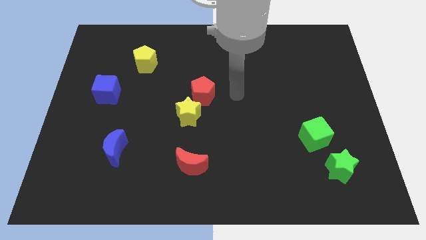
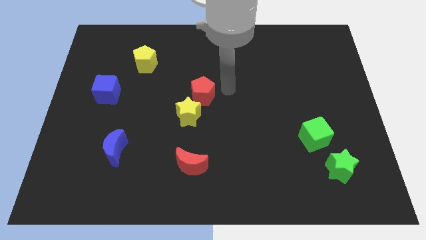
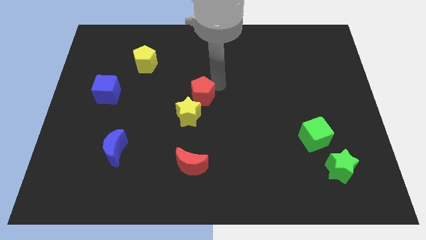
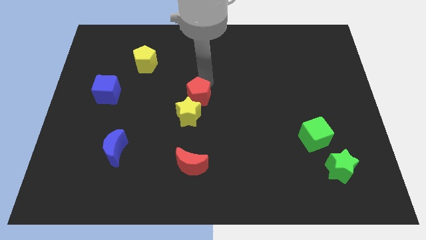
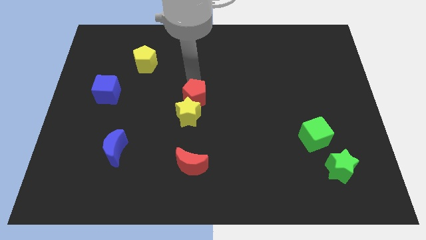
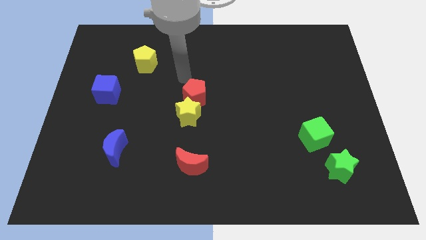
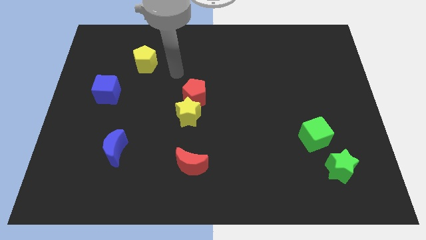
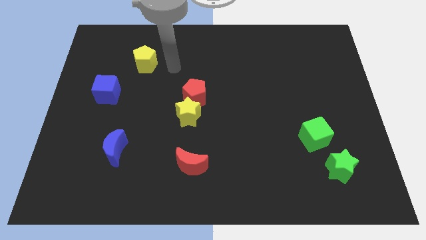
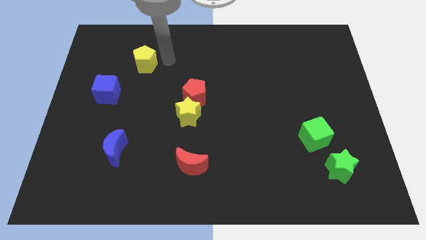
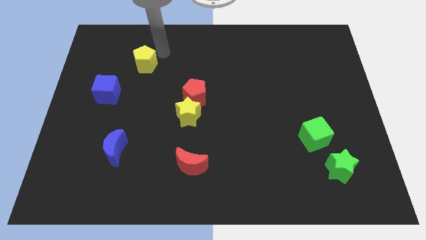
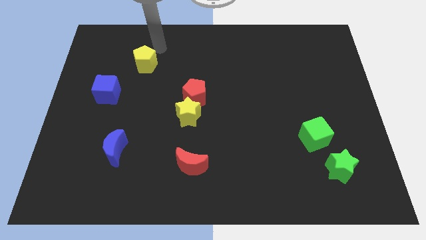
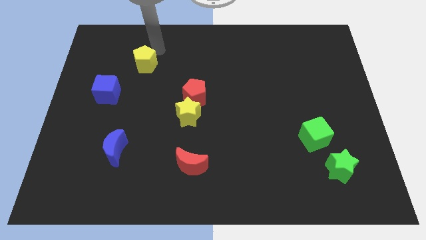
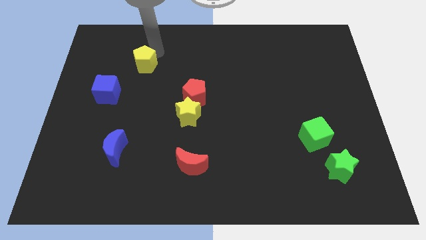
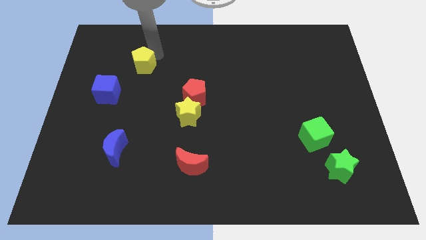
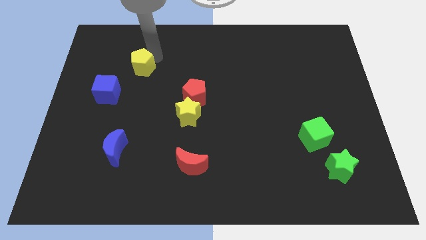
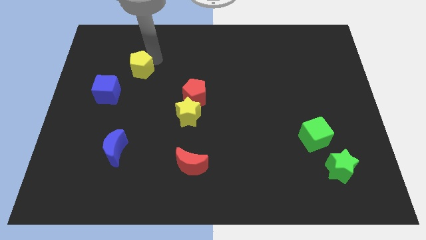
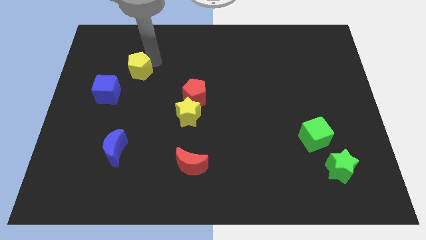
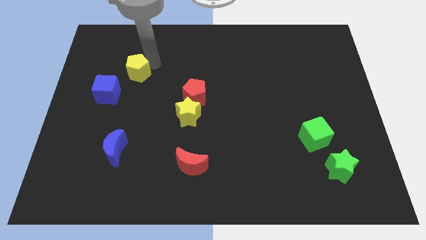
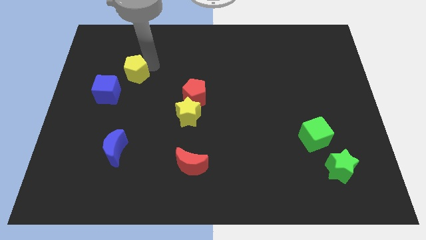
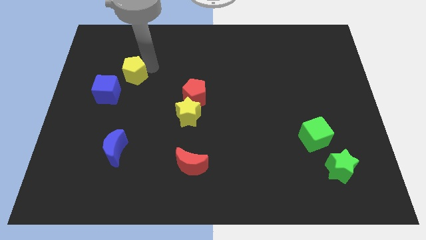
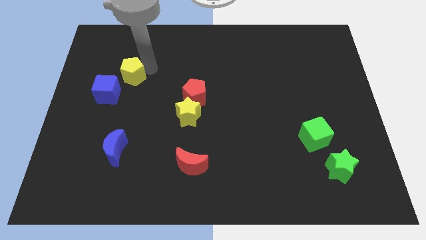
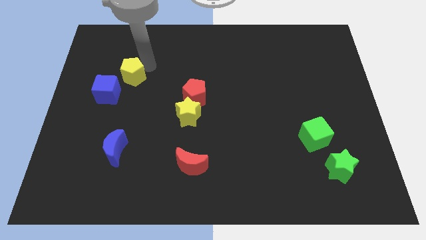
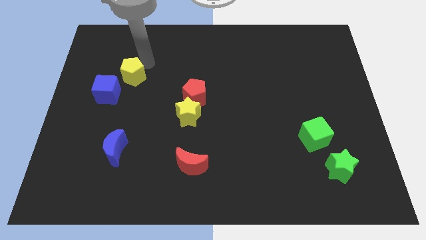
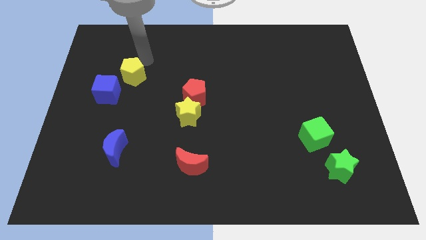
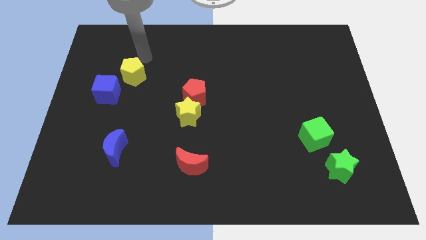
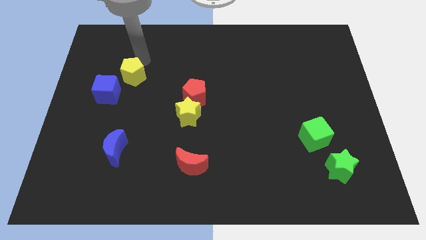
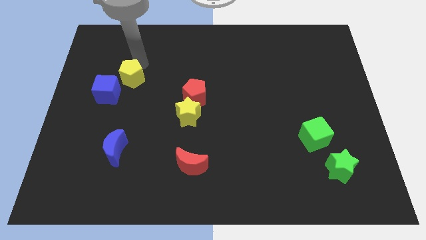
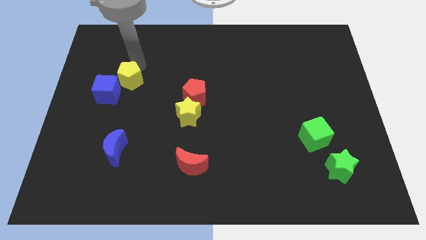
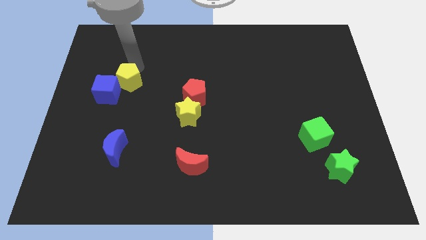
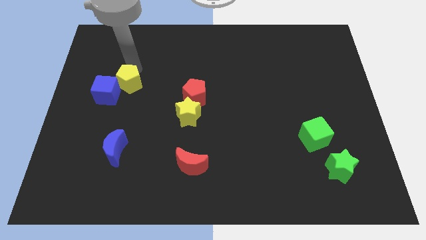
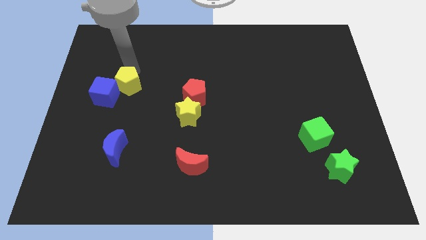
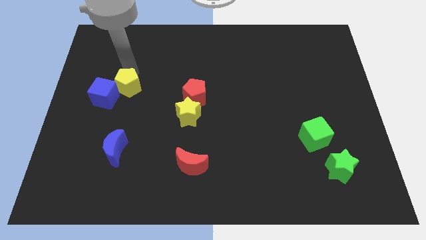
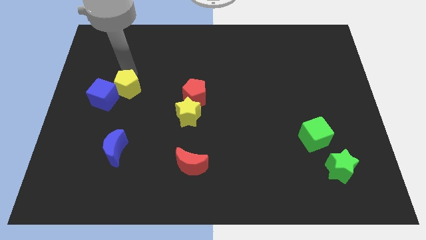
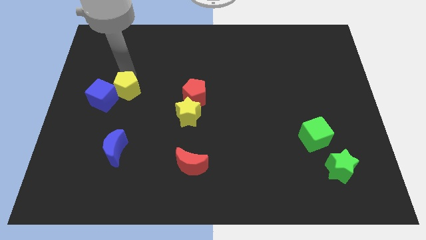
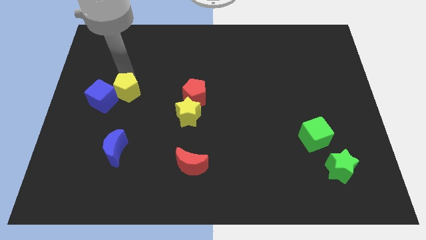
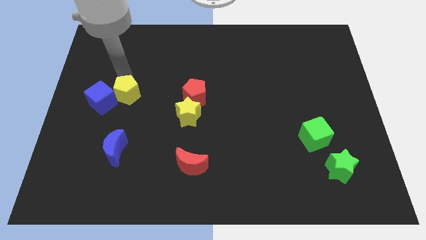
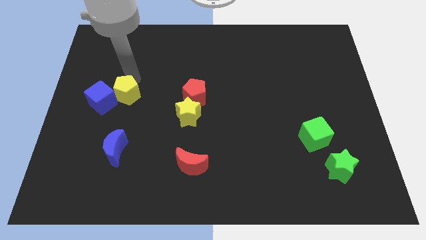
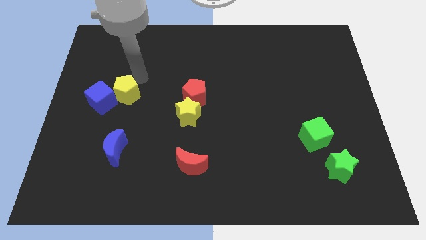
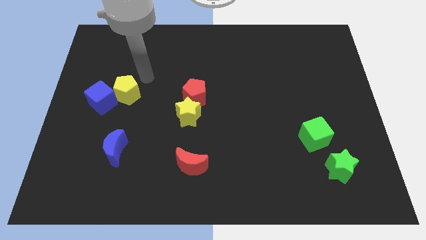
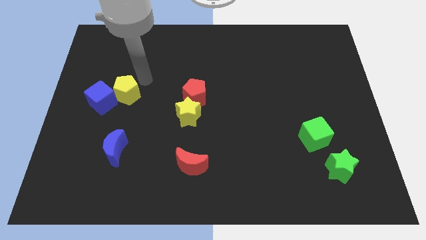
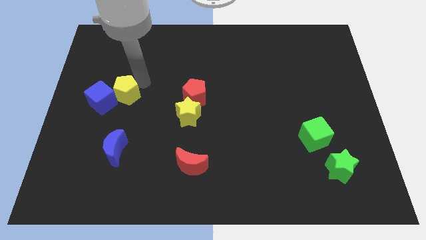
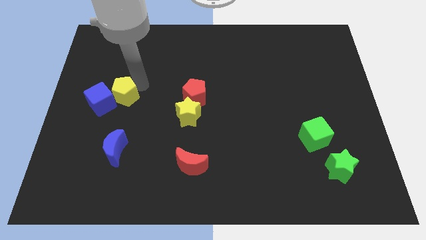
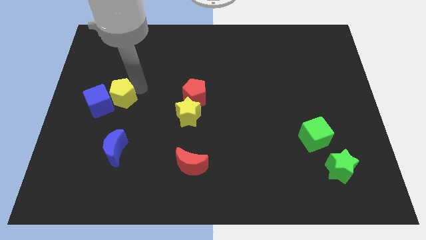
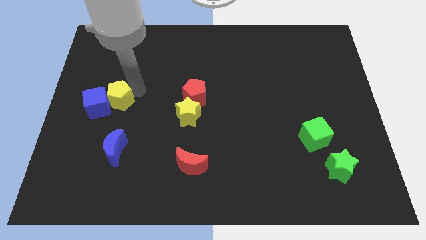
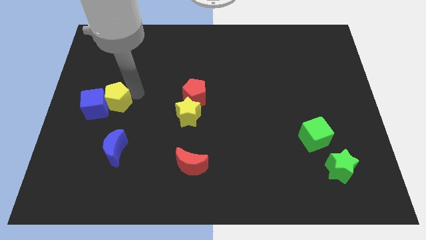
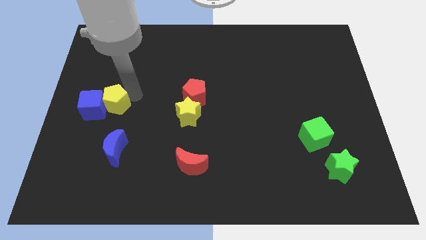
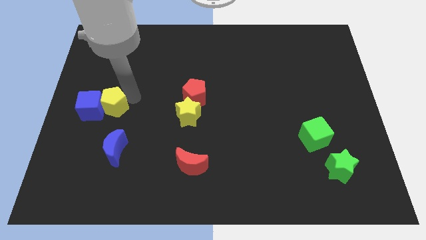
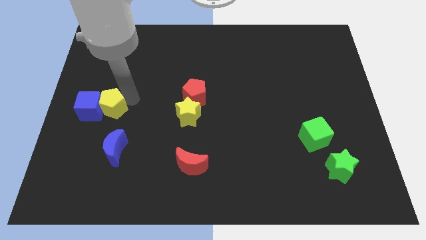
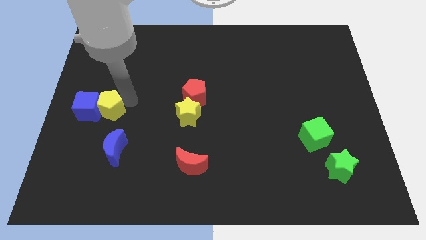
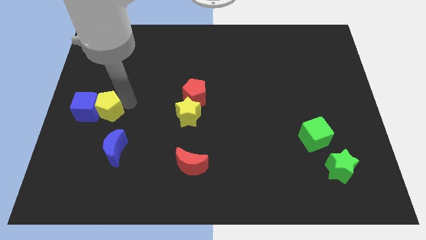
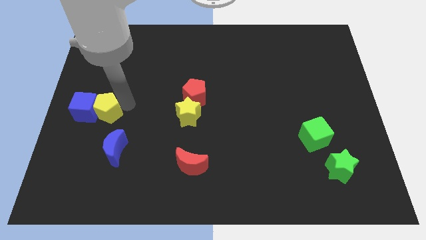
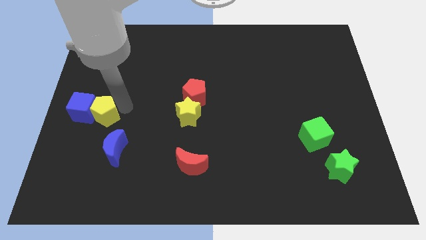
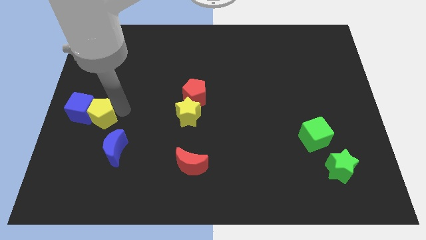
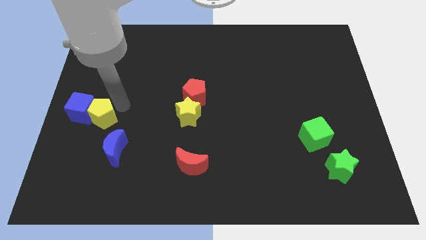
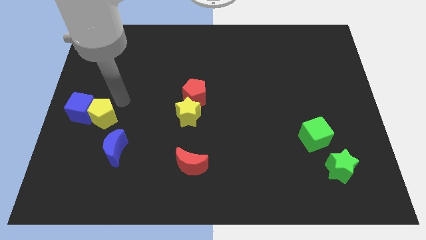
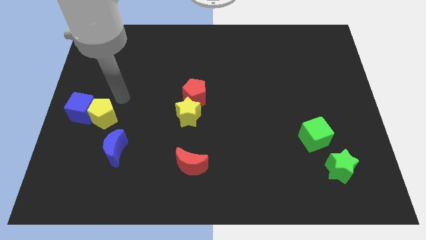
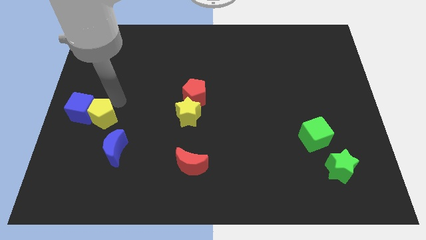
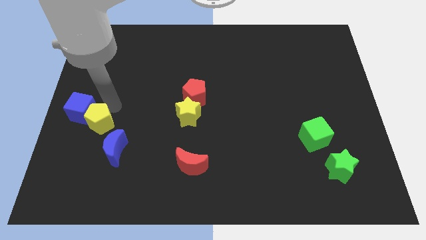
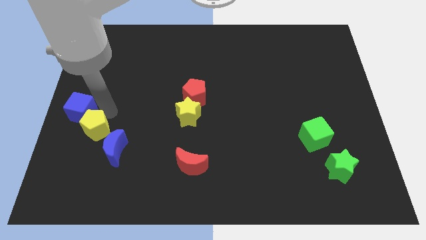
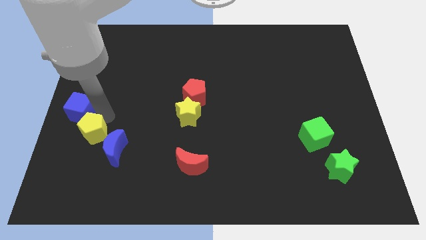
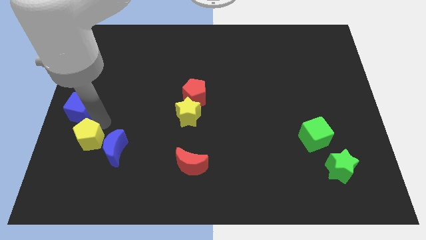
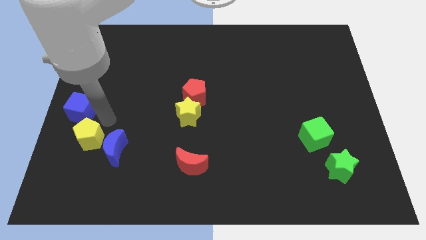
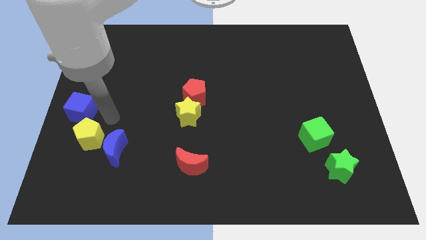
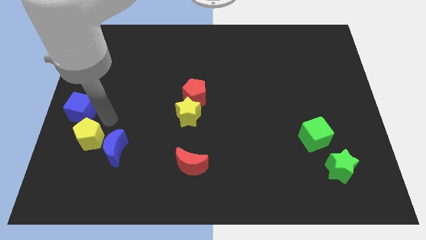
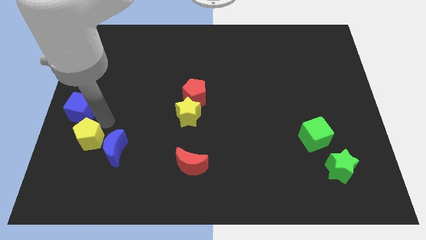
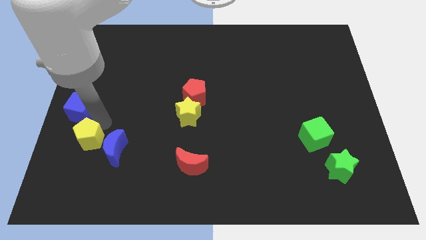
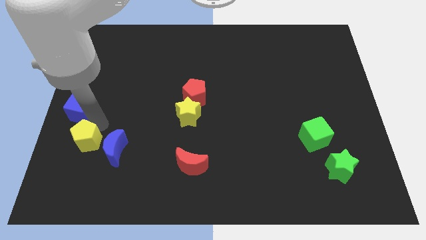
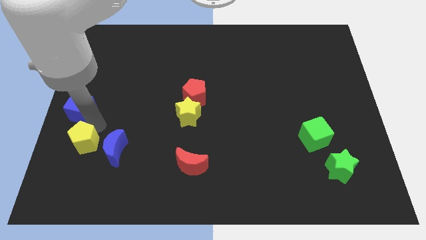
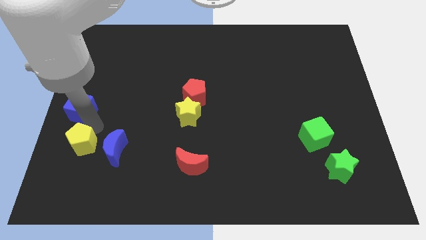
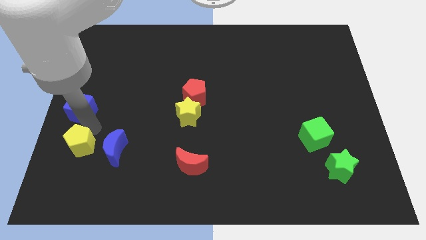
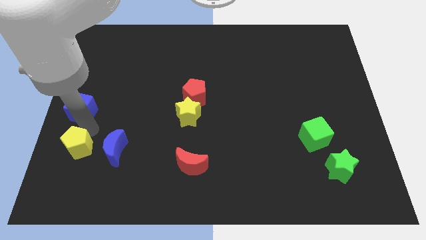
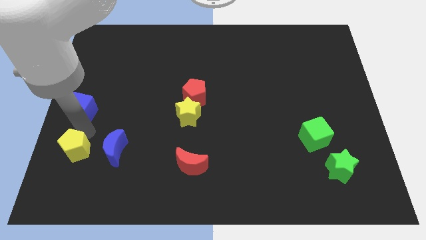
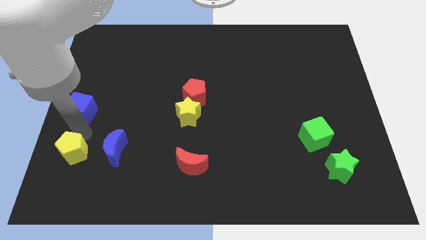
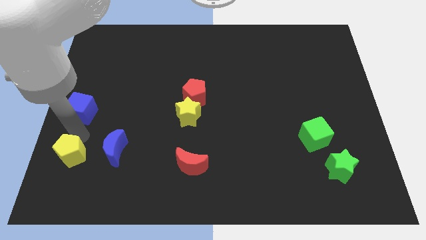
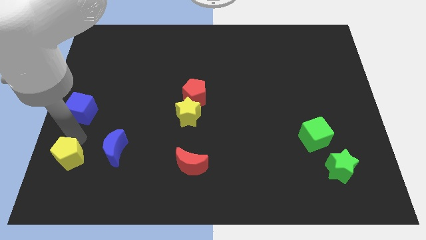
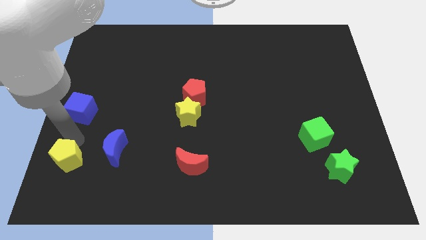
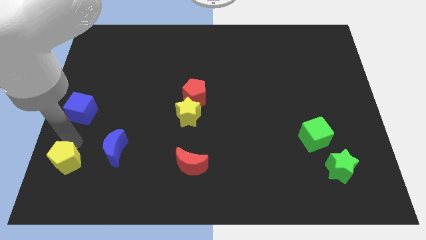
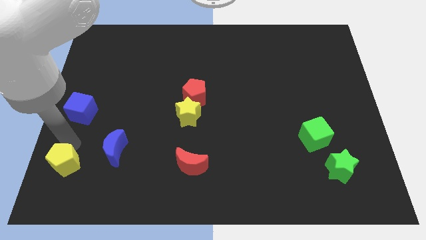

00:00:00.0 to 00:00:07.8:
push the yellow pentagon to the bottom left of the board
